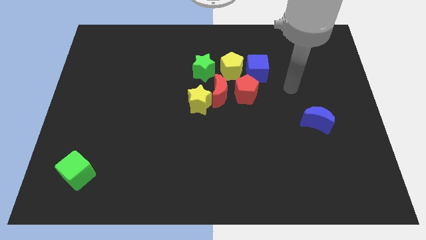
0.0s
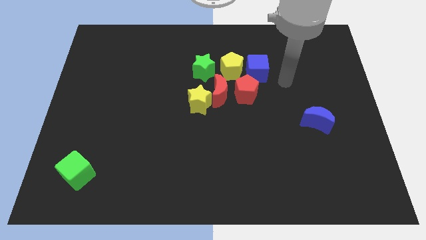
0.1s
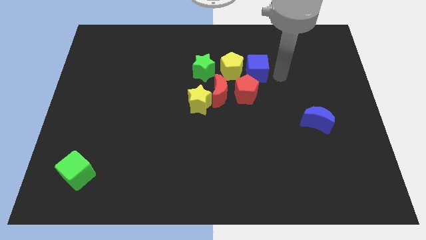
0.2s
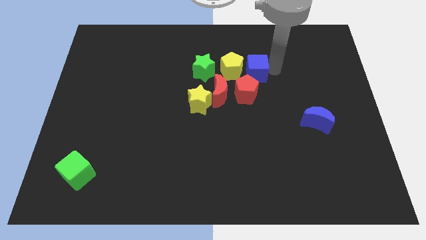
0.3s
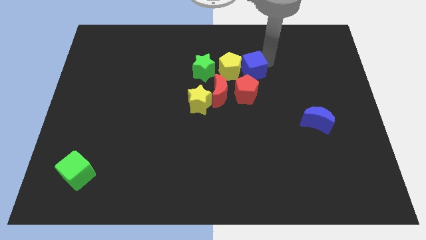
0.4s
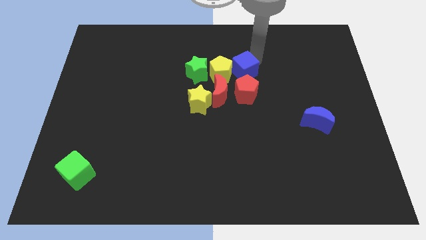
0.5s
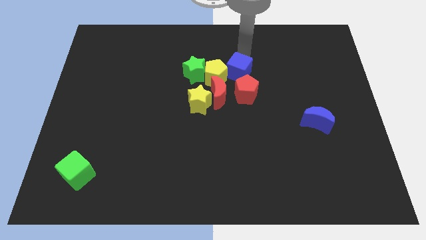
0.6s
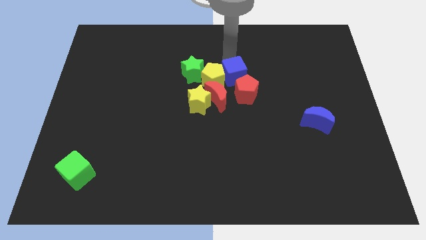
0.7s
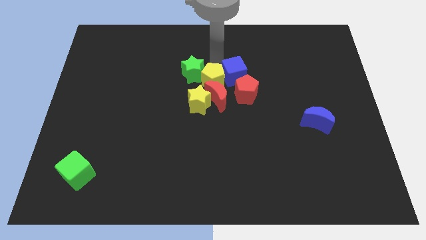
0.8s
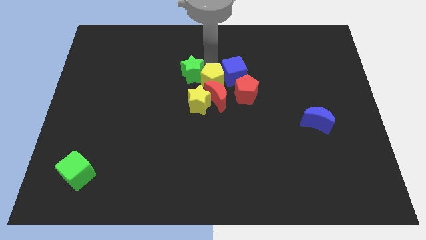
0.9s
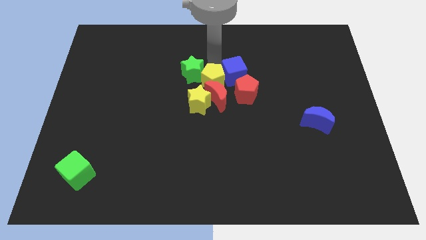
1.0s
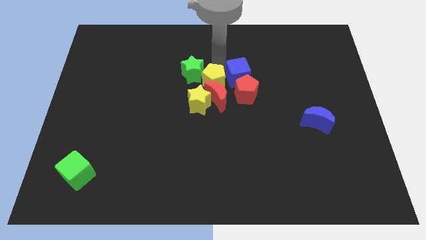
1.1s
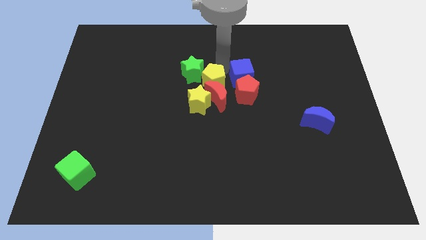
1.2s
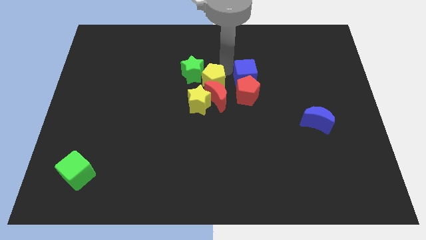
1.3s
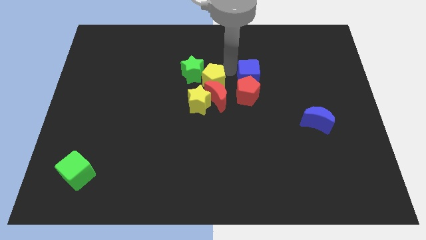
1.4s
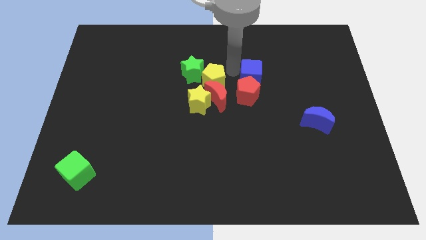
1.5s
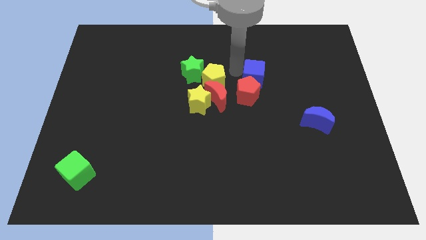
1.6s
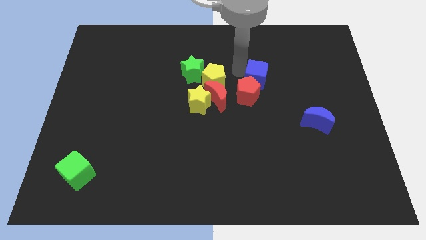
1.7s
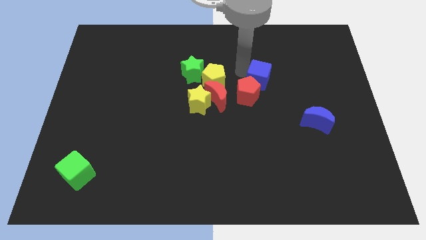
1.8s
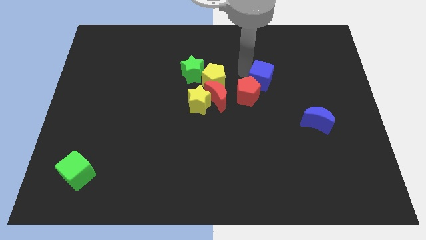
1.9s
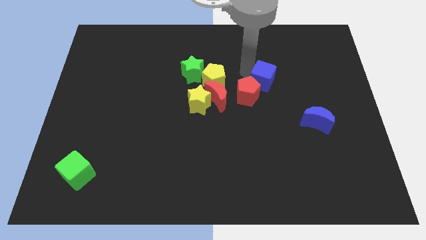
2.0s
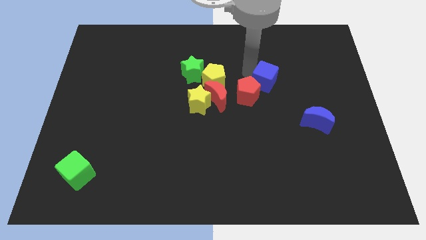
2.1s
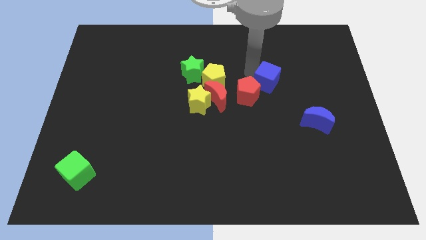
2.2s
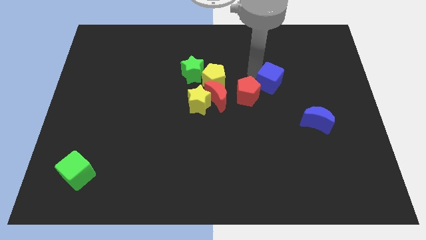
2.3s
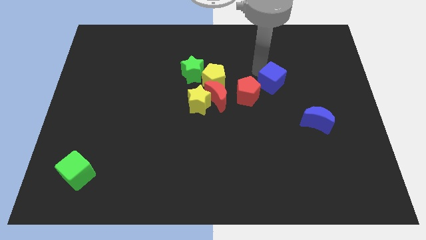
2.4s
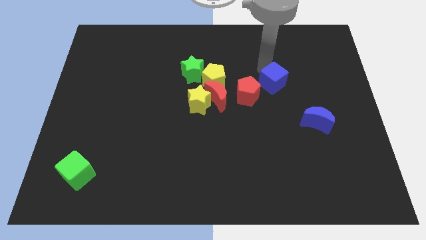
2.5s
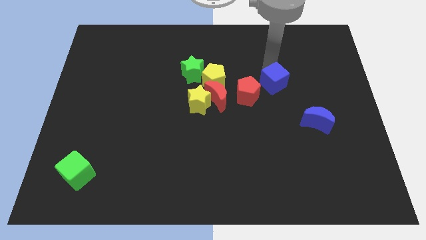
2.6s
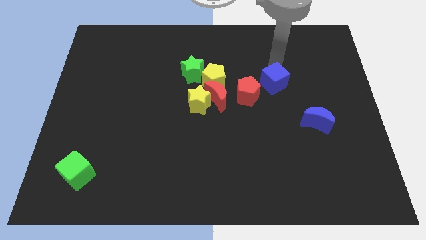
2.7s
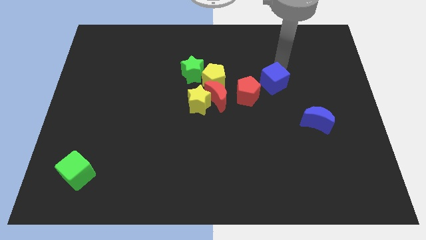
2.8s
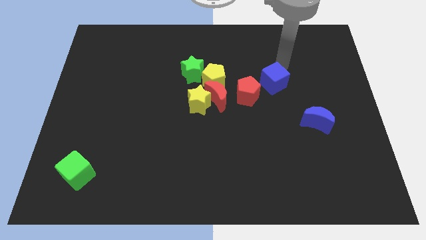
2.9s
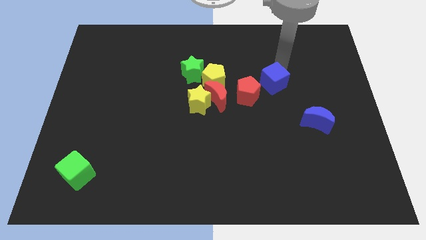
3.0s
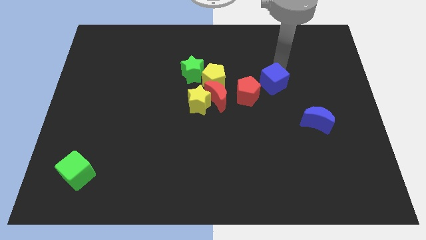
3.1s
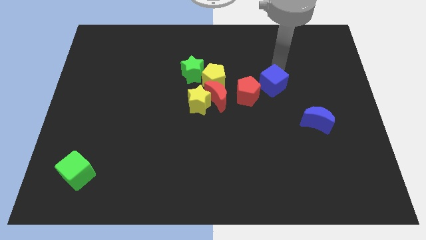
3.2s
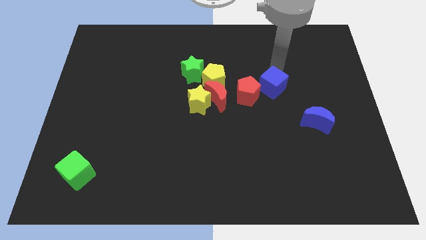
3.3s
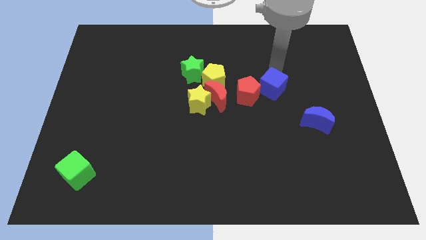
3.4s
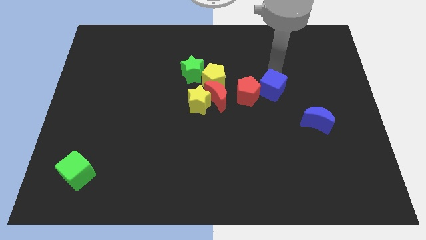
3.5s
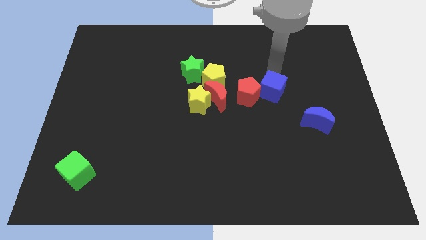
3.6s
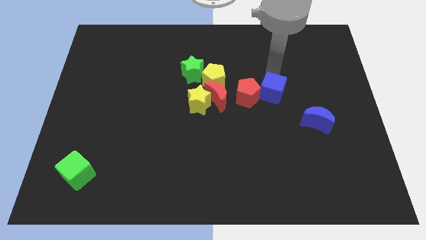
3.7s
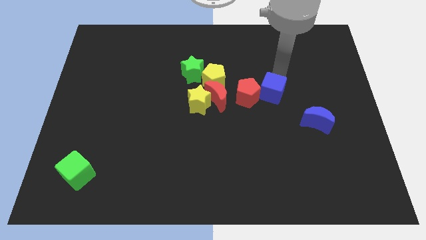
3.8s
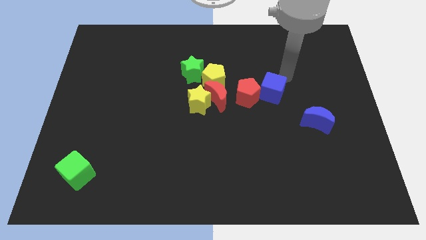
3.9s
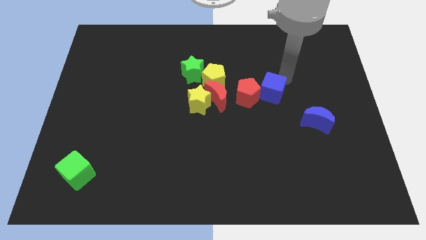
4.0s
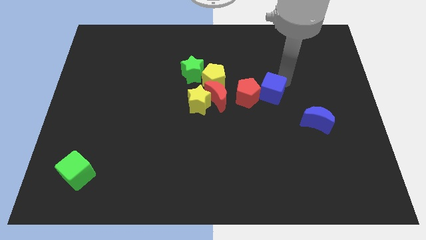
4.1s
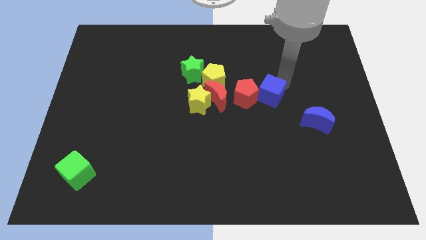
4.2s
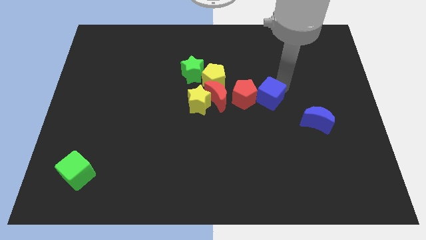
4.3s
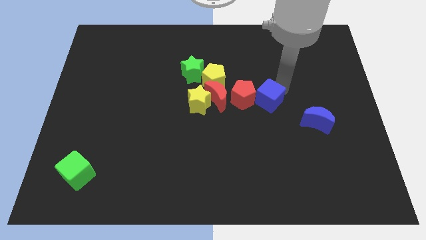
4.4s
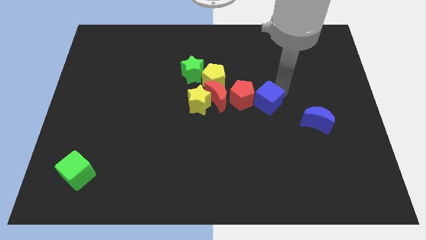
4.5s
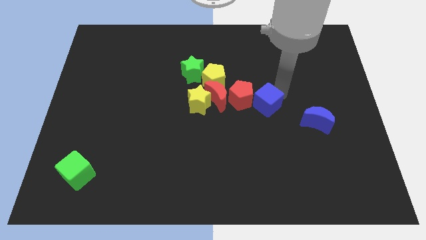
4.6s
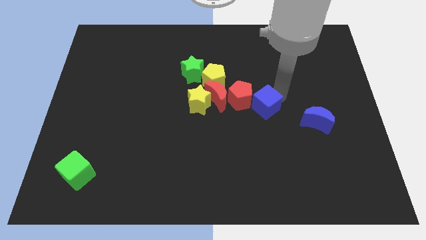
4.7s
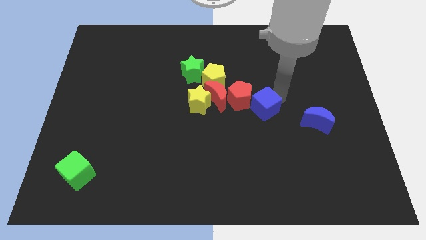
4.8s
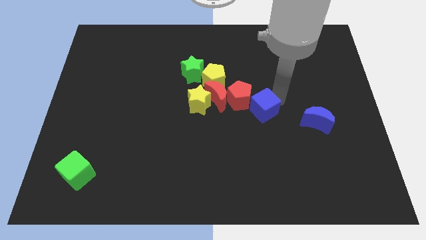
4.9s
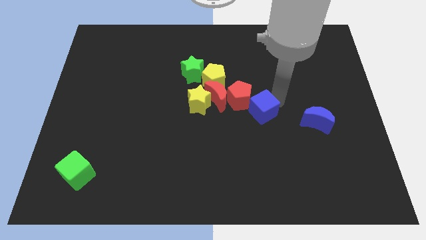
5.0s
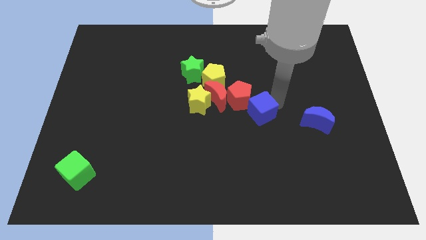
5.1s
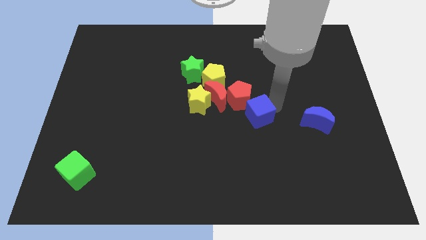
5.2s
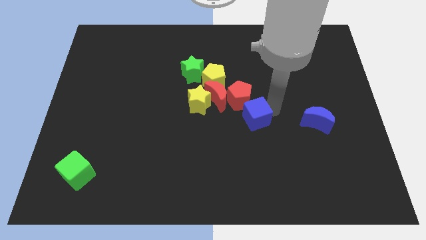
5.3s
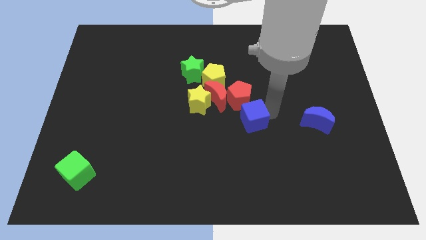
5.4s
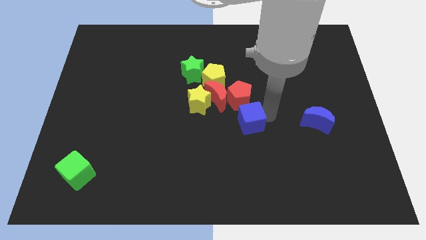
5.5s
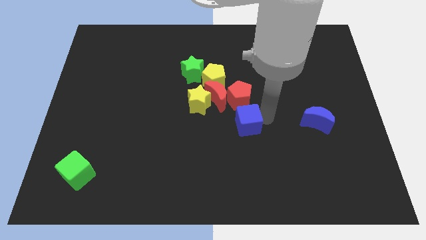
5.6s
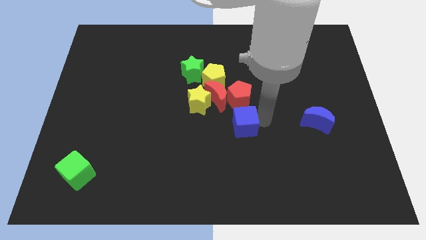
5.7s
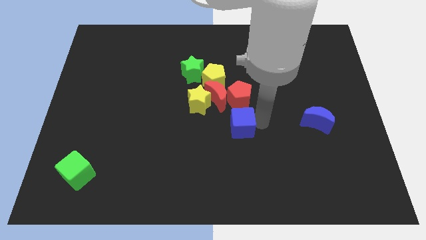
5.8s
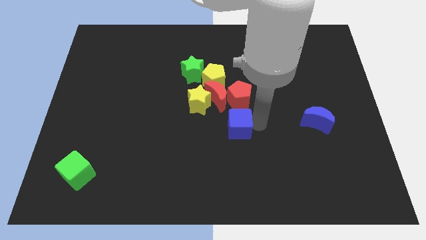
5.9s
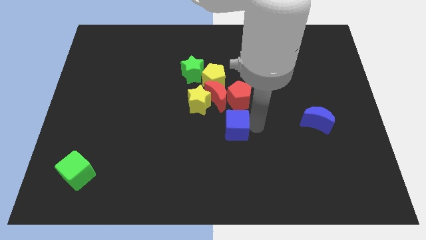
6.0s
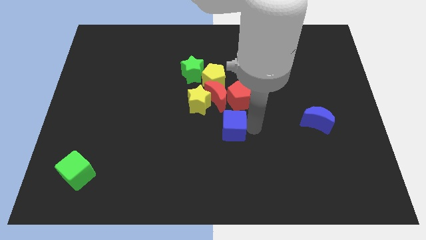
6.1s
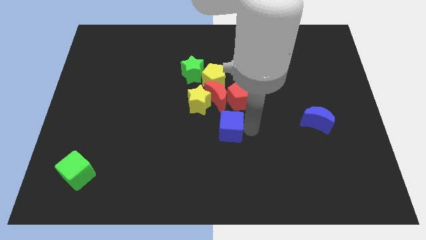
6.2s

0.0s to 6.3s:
put the blue cube below the yellow pentagon

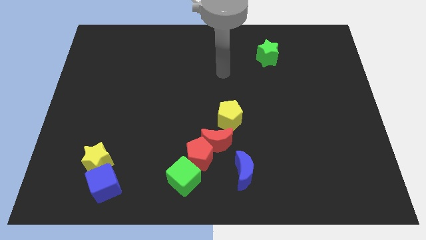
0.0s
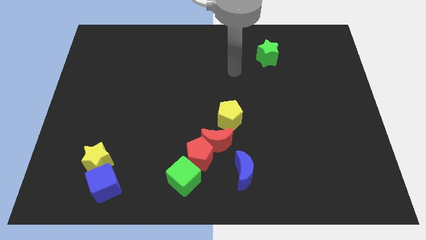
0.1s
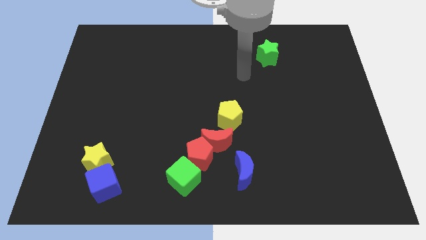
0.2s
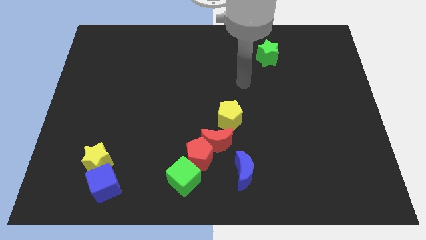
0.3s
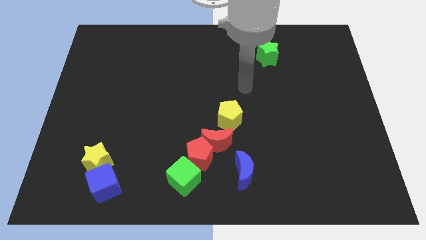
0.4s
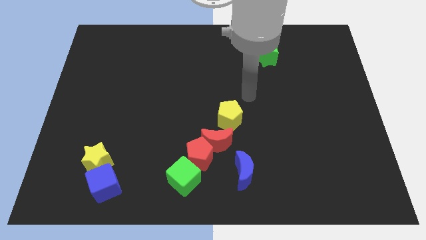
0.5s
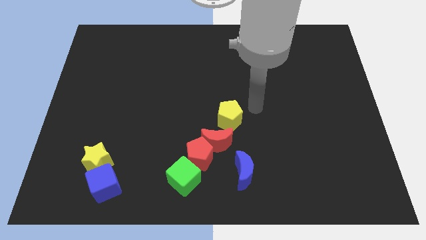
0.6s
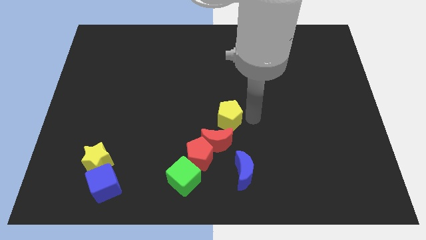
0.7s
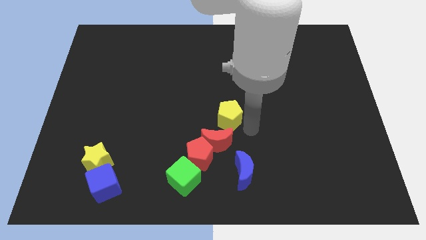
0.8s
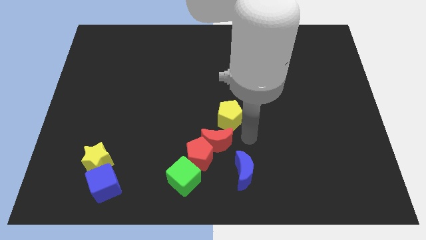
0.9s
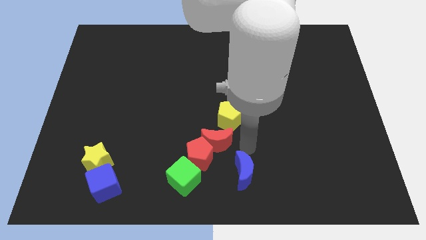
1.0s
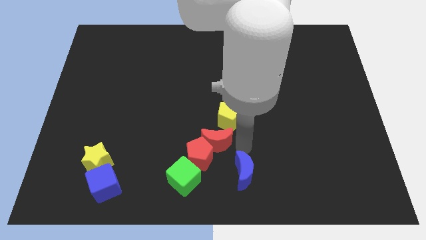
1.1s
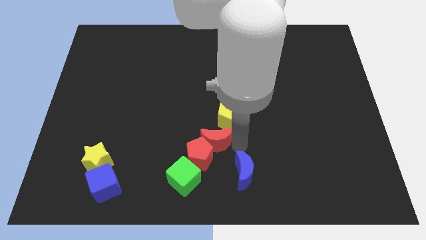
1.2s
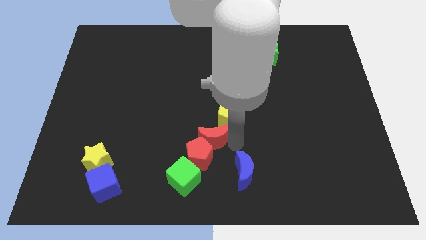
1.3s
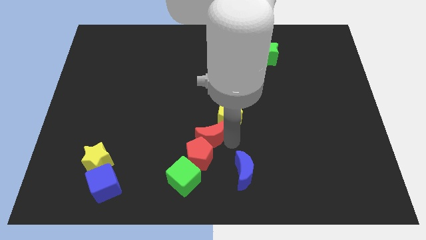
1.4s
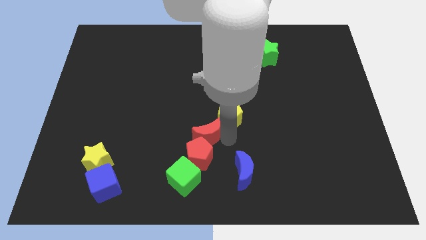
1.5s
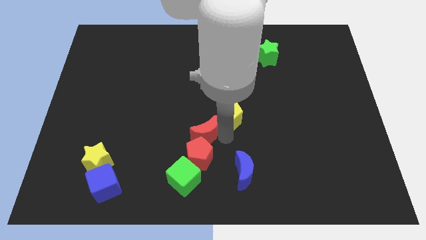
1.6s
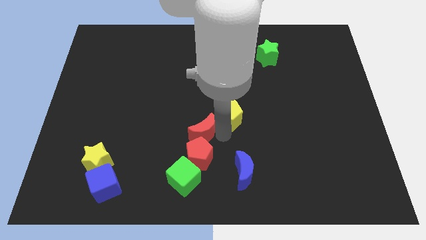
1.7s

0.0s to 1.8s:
push the red moon to the top left of the red pentagon
